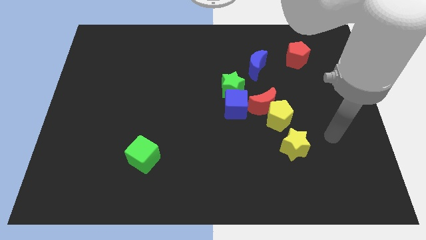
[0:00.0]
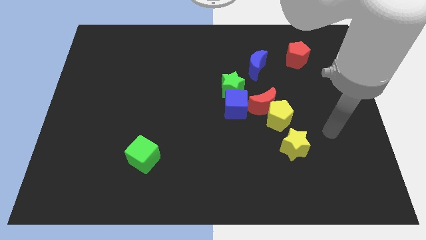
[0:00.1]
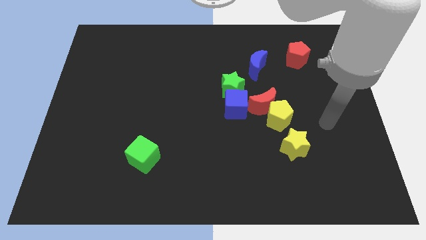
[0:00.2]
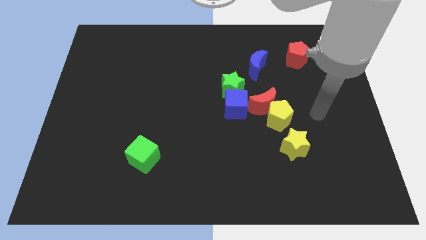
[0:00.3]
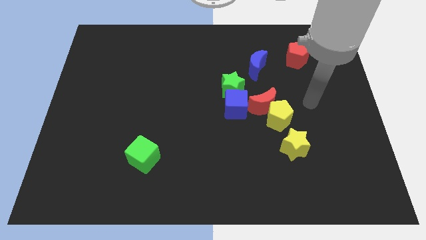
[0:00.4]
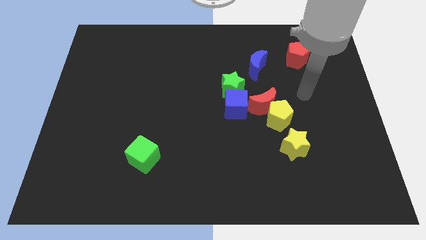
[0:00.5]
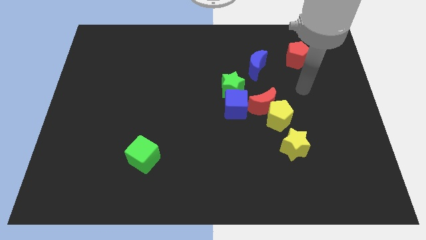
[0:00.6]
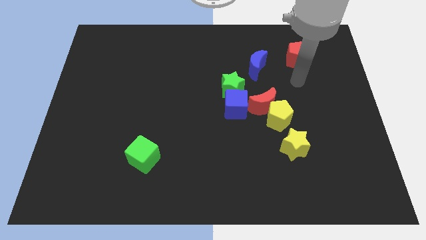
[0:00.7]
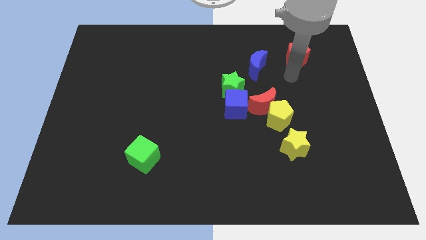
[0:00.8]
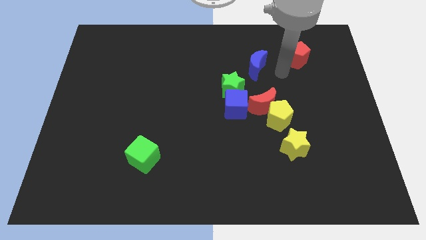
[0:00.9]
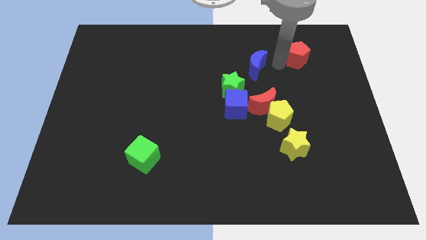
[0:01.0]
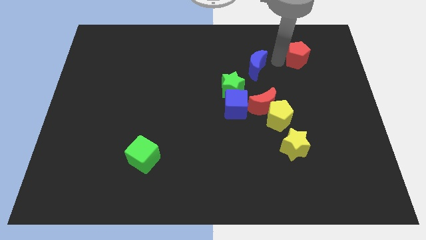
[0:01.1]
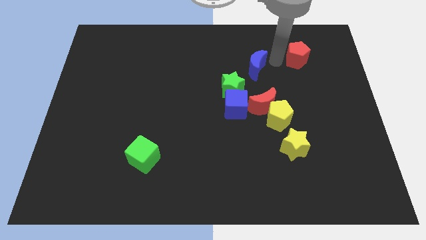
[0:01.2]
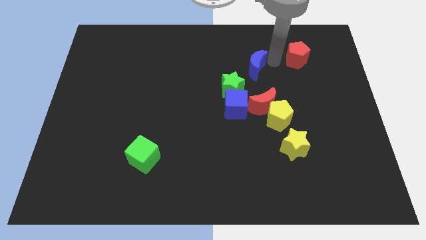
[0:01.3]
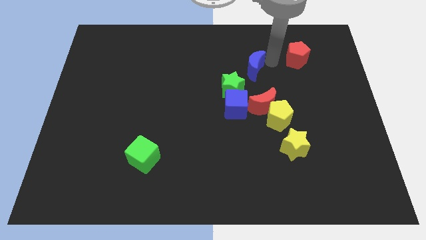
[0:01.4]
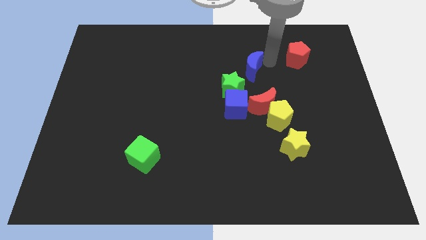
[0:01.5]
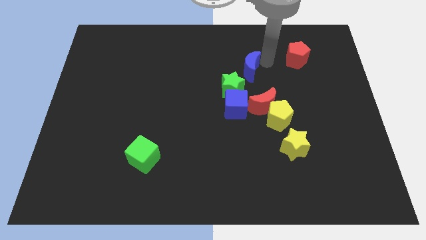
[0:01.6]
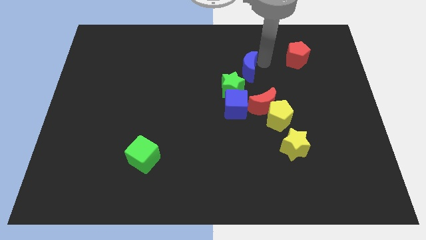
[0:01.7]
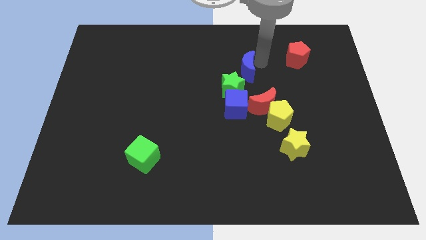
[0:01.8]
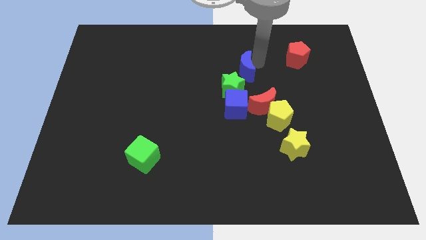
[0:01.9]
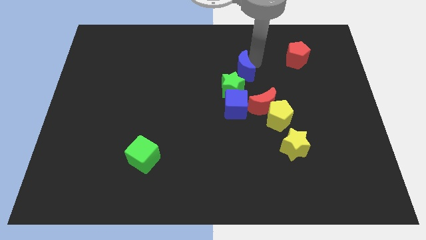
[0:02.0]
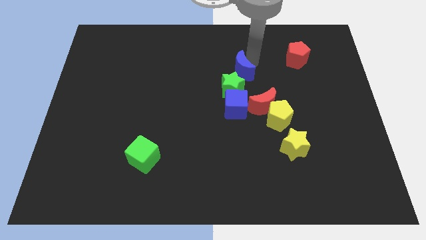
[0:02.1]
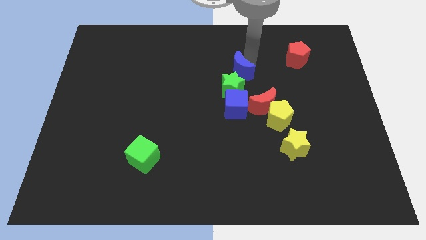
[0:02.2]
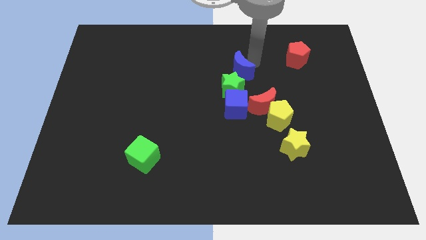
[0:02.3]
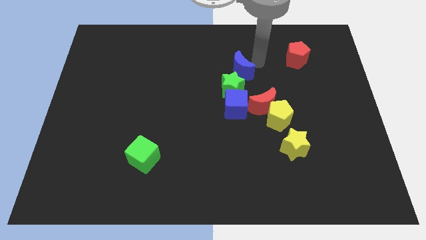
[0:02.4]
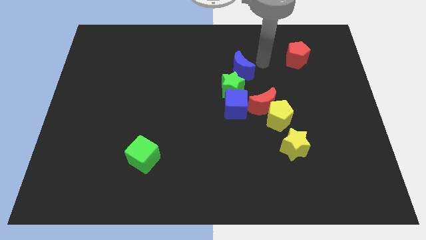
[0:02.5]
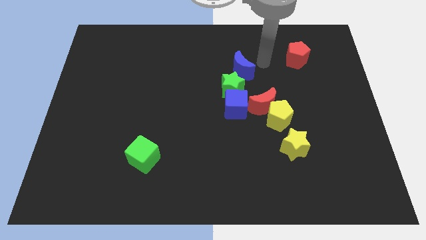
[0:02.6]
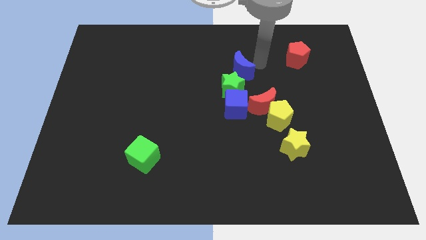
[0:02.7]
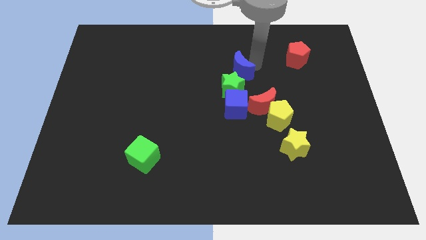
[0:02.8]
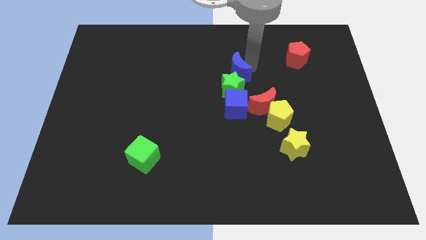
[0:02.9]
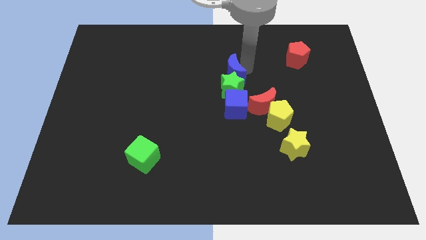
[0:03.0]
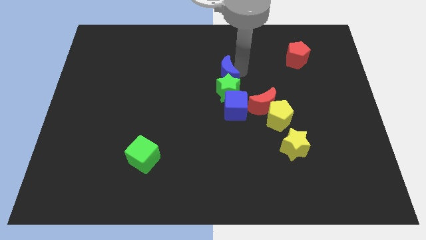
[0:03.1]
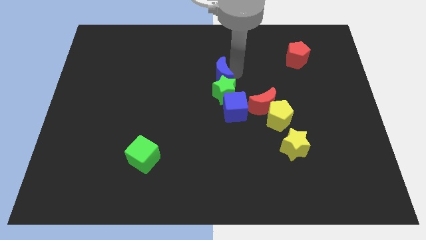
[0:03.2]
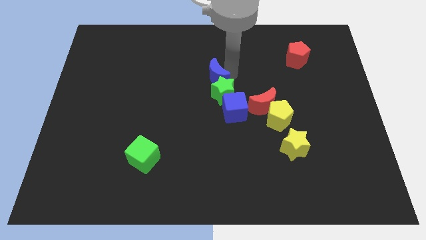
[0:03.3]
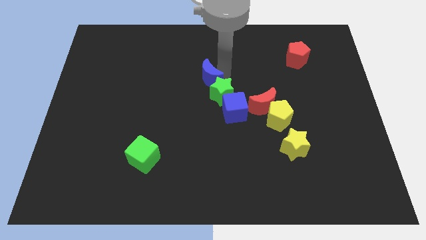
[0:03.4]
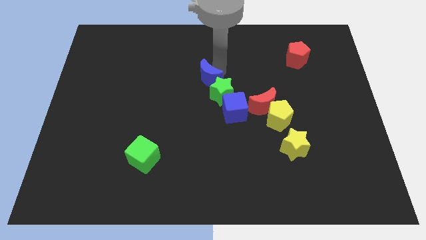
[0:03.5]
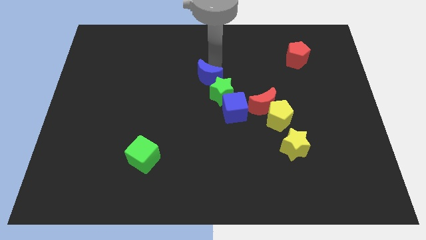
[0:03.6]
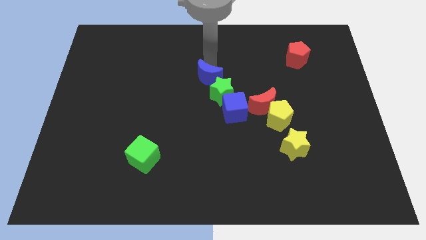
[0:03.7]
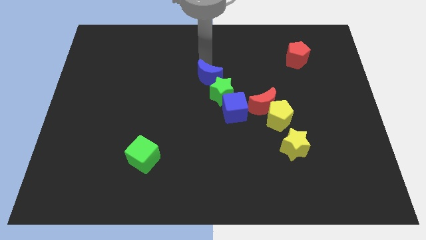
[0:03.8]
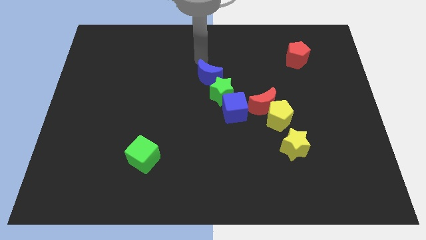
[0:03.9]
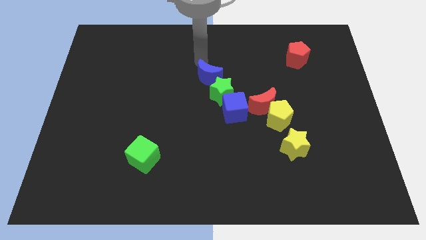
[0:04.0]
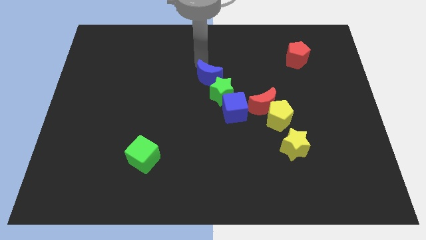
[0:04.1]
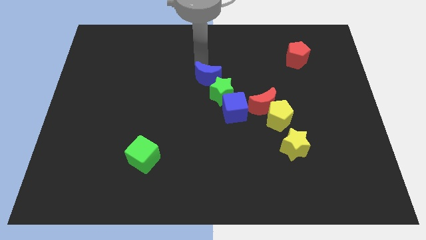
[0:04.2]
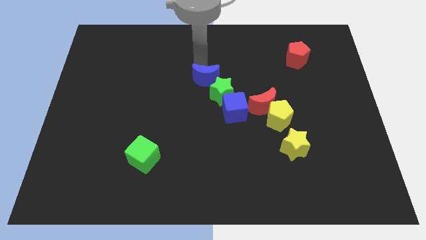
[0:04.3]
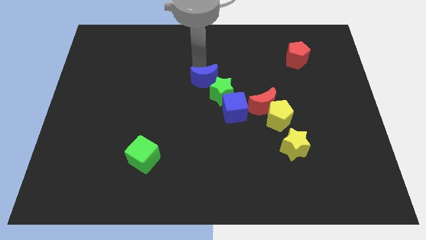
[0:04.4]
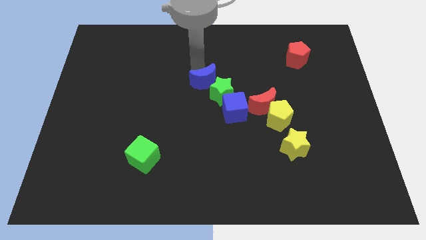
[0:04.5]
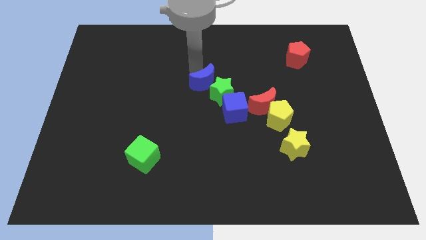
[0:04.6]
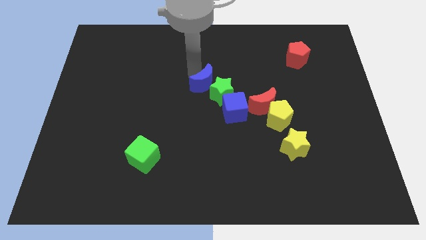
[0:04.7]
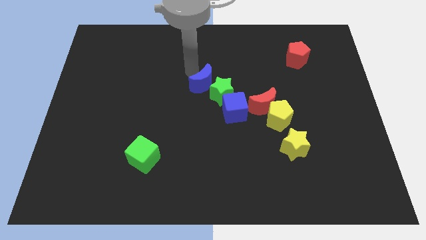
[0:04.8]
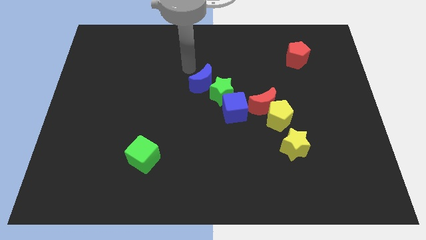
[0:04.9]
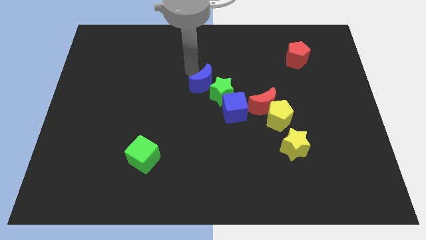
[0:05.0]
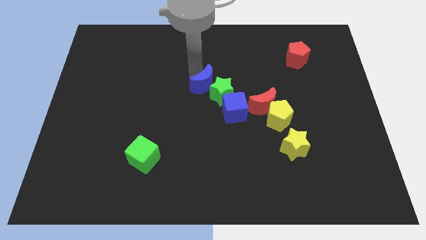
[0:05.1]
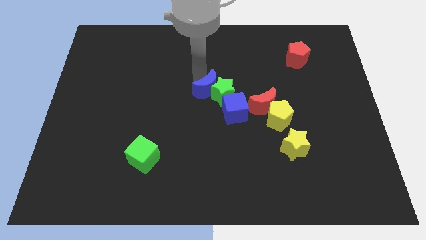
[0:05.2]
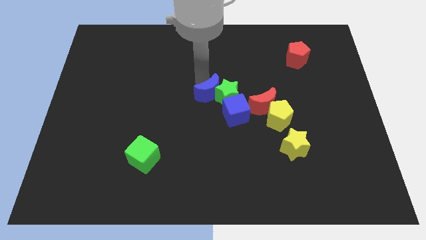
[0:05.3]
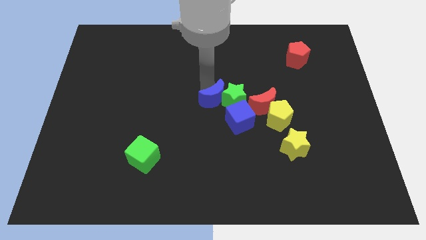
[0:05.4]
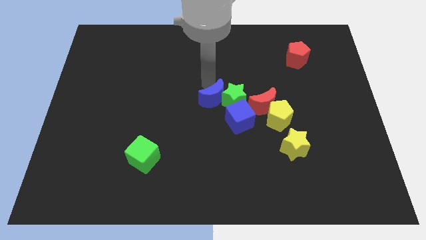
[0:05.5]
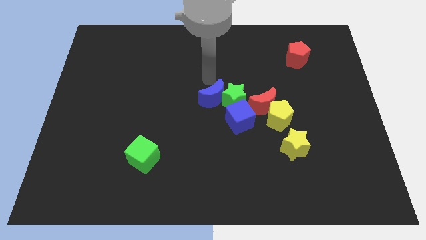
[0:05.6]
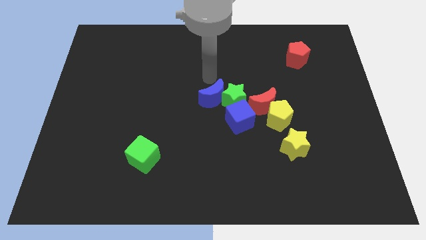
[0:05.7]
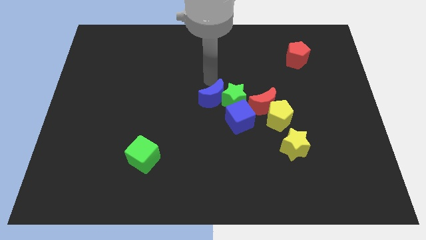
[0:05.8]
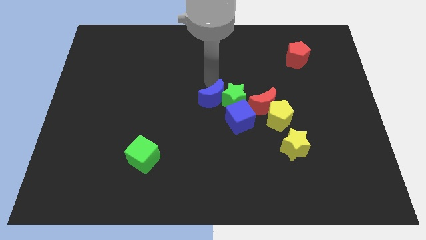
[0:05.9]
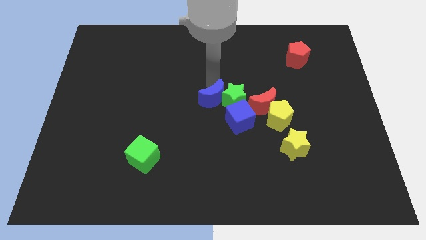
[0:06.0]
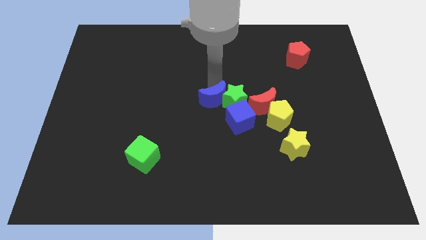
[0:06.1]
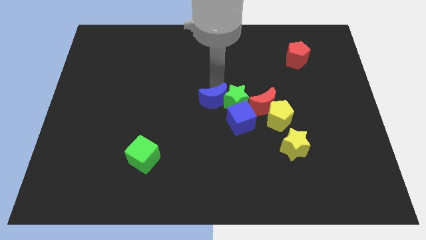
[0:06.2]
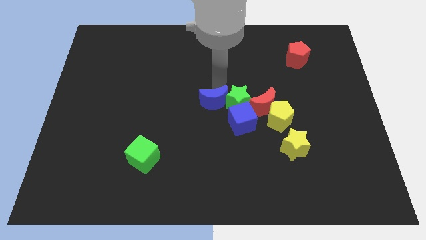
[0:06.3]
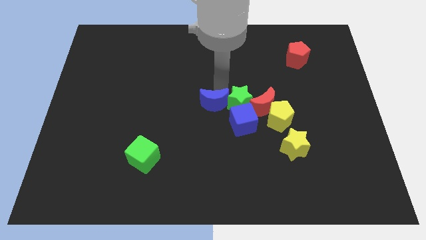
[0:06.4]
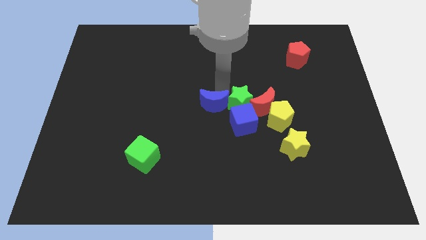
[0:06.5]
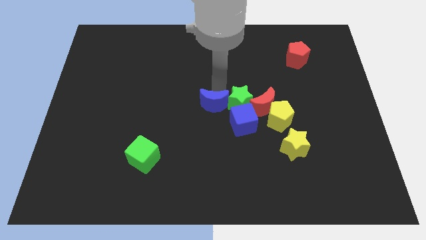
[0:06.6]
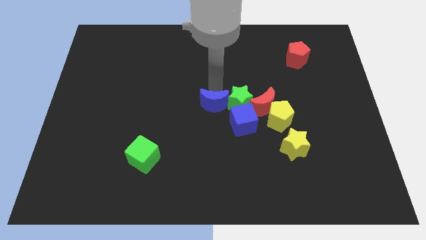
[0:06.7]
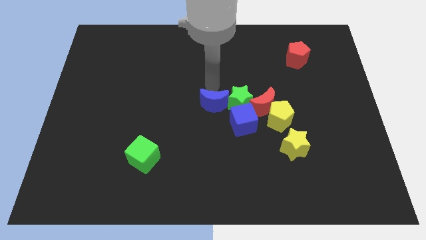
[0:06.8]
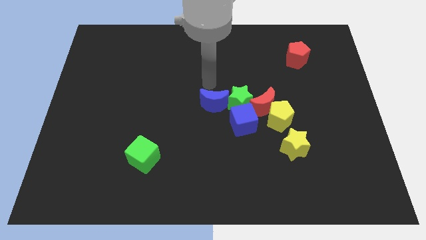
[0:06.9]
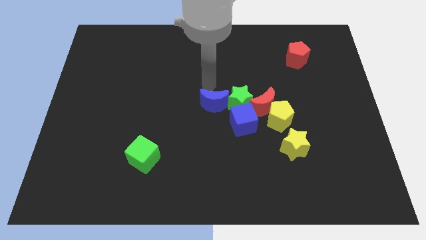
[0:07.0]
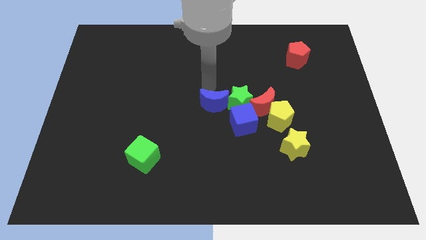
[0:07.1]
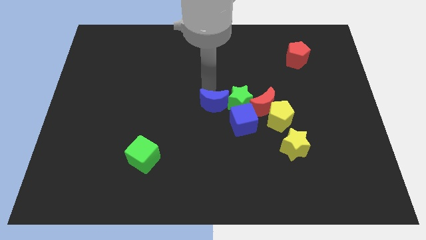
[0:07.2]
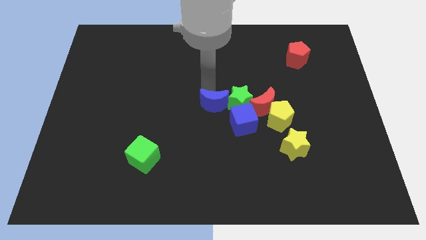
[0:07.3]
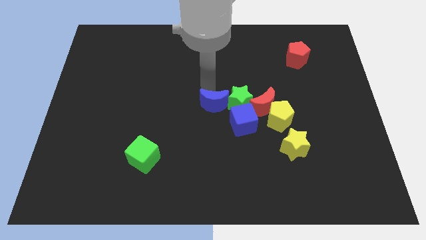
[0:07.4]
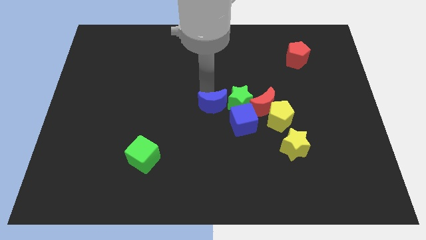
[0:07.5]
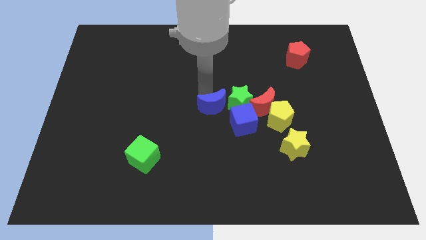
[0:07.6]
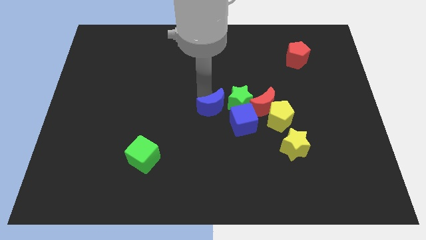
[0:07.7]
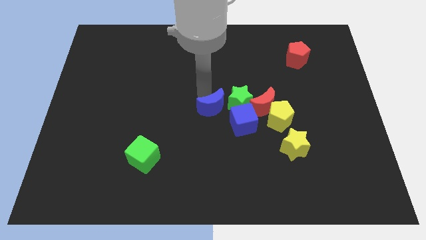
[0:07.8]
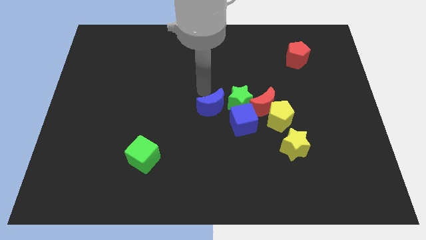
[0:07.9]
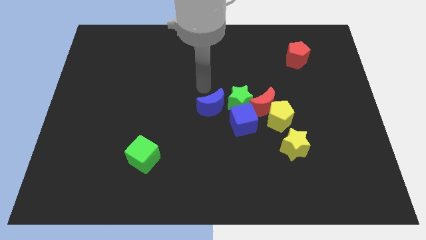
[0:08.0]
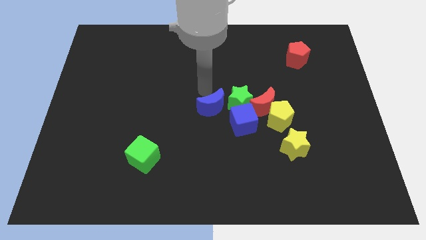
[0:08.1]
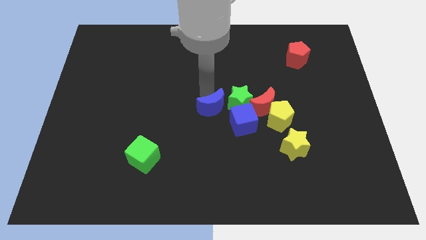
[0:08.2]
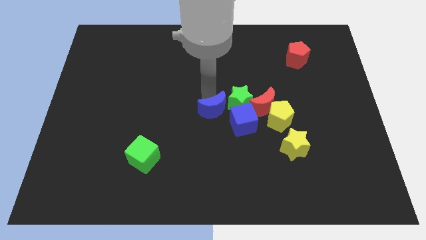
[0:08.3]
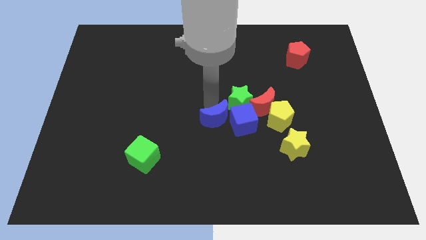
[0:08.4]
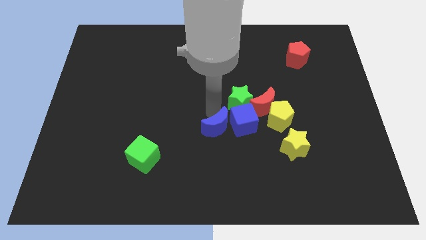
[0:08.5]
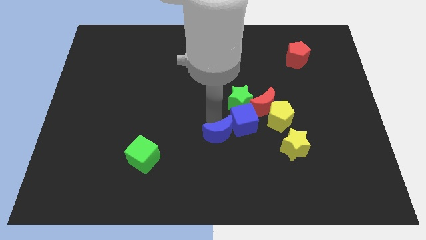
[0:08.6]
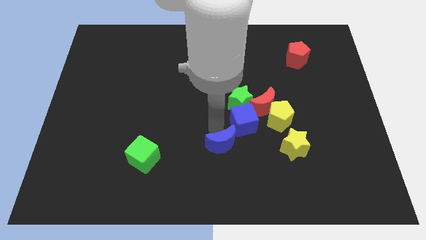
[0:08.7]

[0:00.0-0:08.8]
move the blue moon to the bottom of the blue cube
